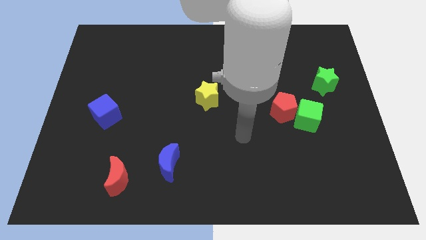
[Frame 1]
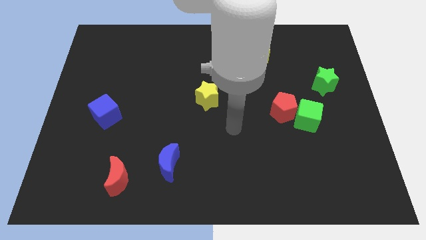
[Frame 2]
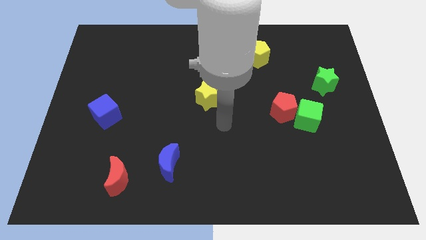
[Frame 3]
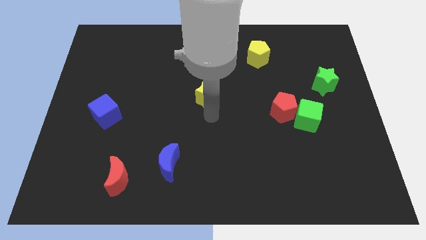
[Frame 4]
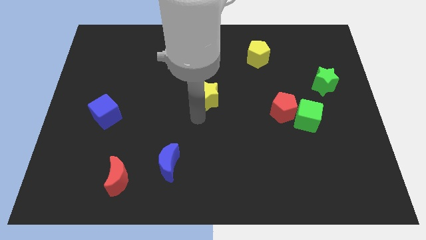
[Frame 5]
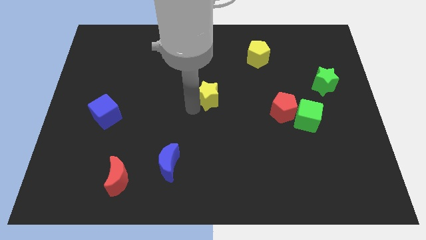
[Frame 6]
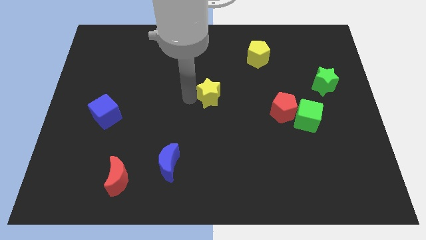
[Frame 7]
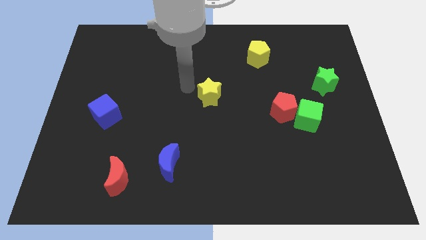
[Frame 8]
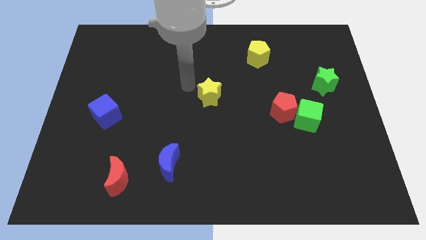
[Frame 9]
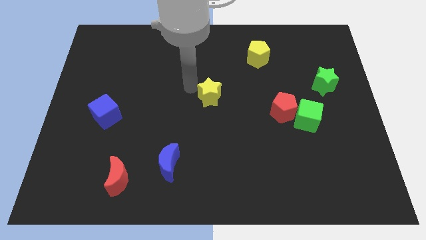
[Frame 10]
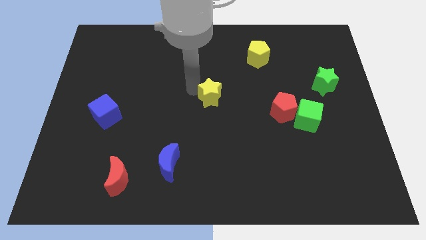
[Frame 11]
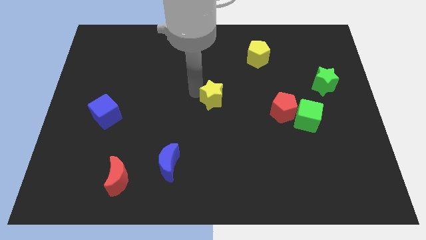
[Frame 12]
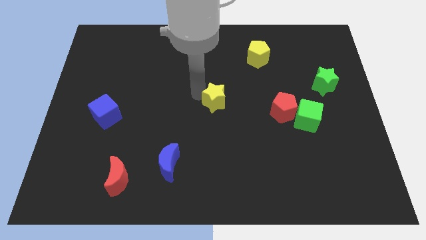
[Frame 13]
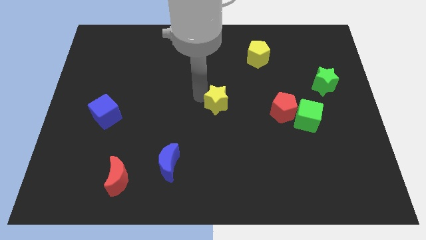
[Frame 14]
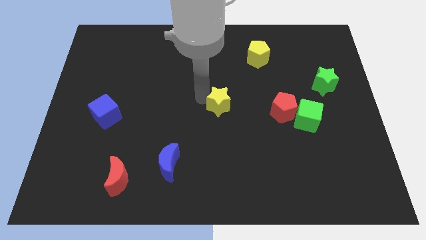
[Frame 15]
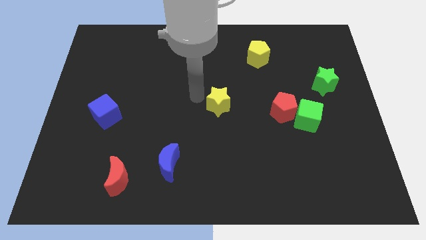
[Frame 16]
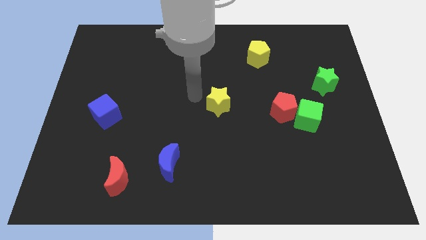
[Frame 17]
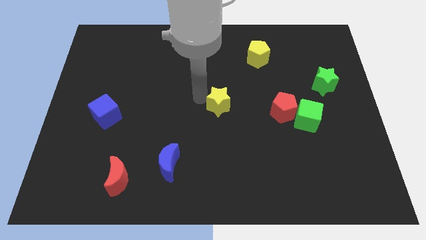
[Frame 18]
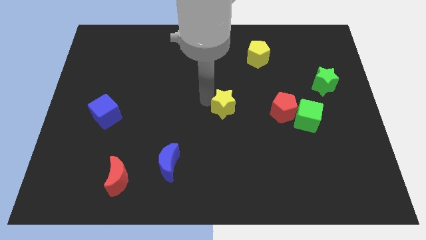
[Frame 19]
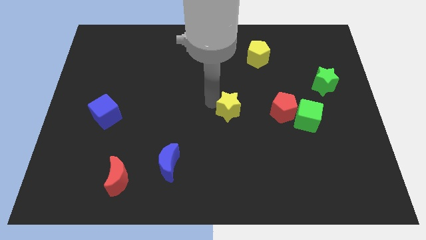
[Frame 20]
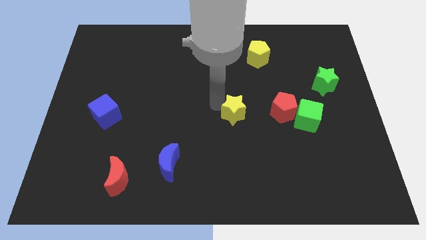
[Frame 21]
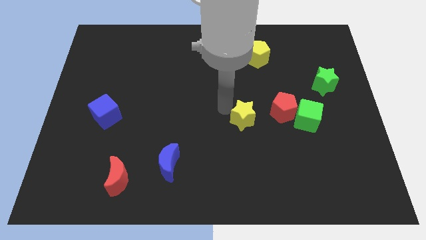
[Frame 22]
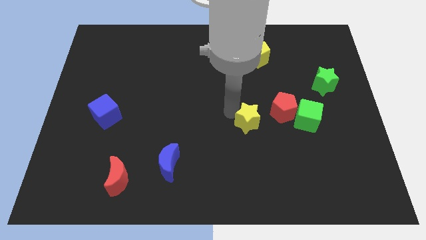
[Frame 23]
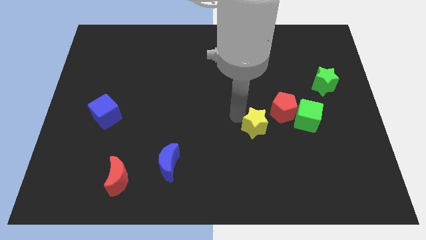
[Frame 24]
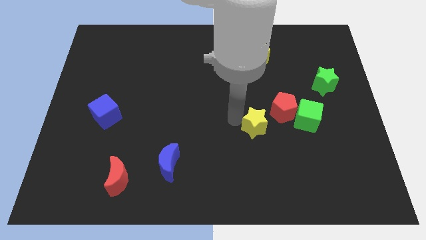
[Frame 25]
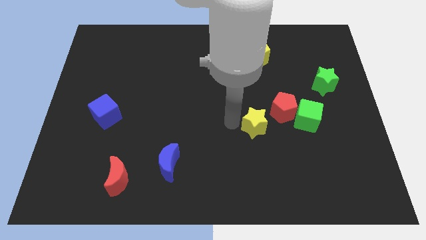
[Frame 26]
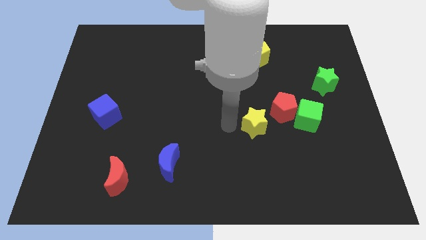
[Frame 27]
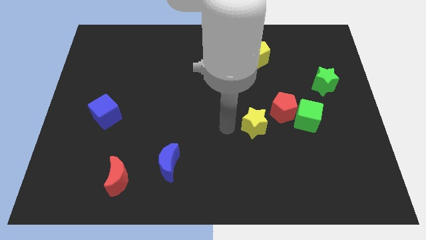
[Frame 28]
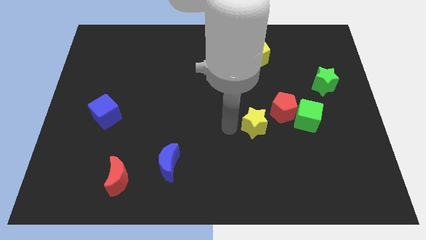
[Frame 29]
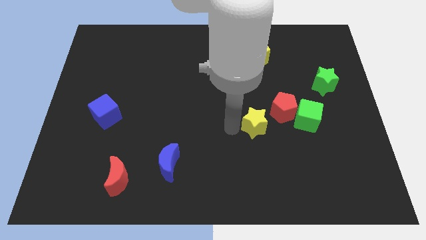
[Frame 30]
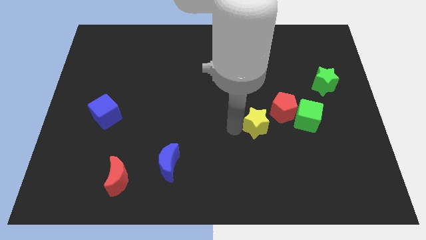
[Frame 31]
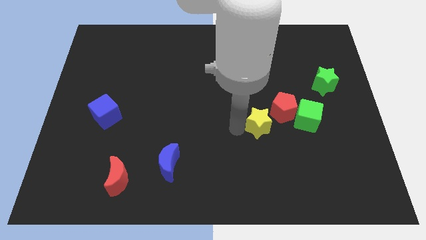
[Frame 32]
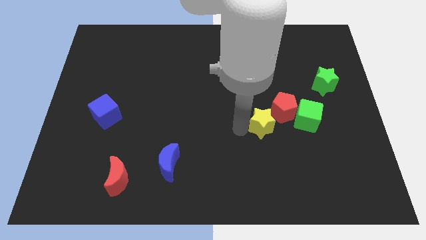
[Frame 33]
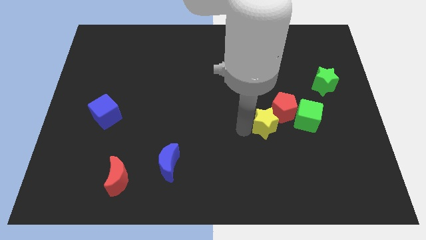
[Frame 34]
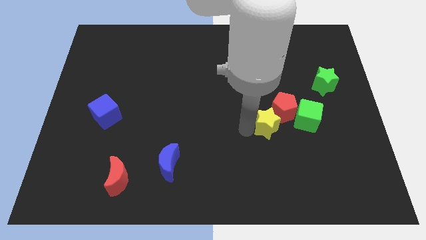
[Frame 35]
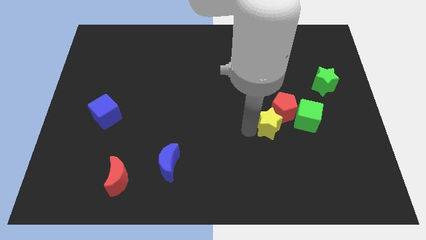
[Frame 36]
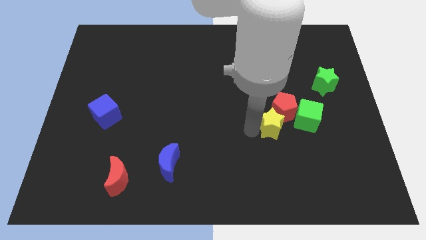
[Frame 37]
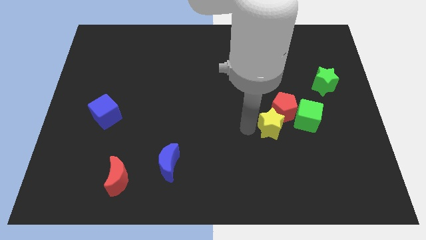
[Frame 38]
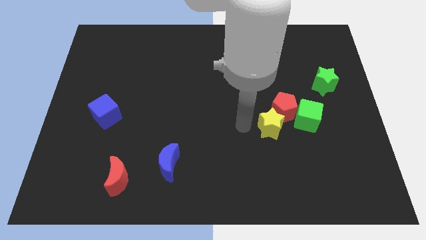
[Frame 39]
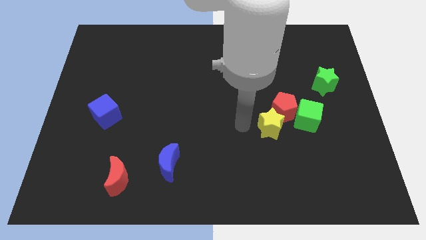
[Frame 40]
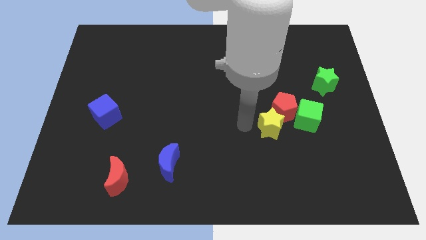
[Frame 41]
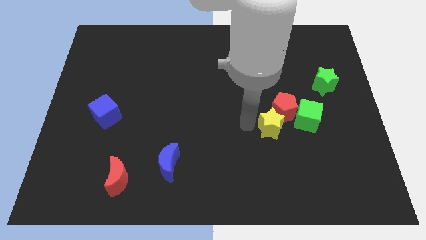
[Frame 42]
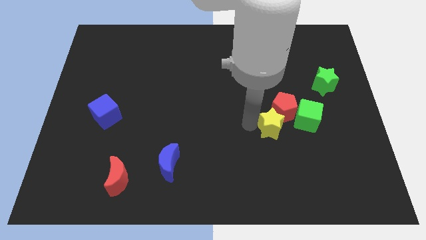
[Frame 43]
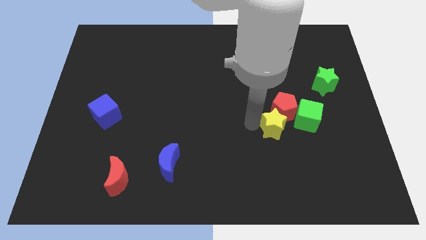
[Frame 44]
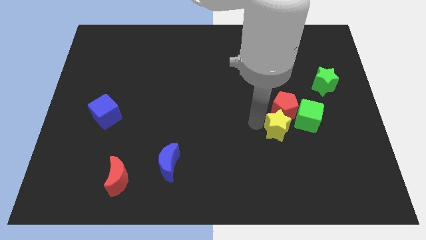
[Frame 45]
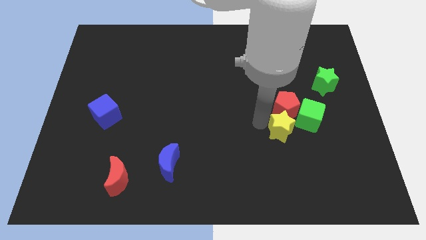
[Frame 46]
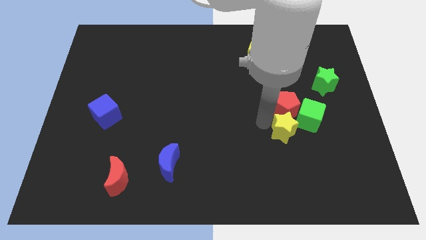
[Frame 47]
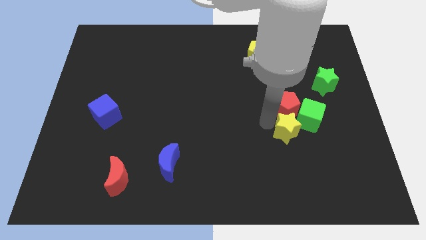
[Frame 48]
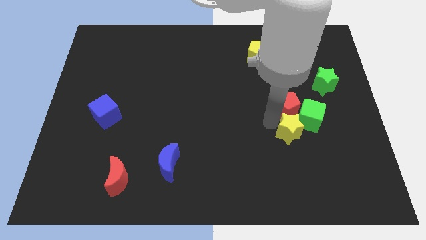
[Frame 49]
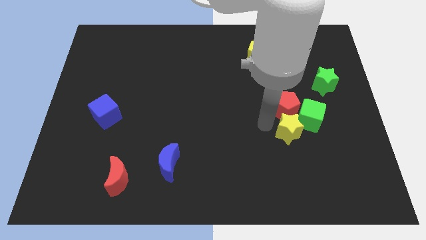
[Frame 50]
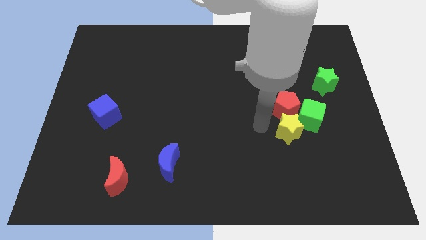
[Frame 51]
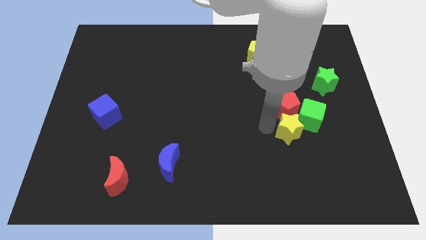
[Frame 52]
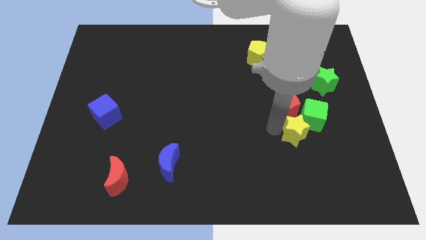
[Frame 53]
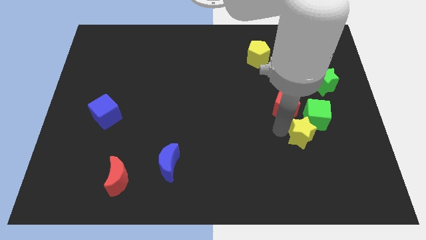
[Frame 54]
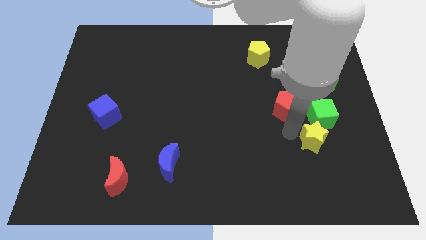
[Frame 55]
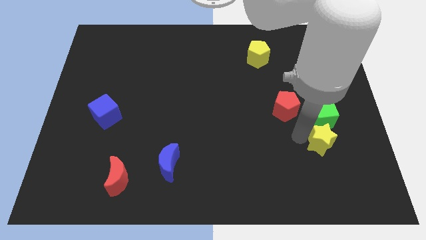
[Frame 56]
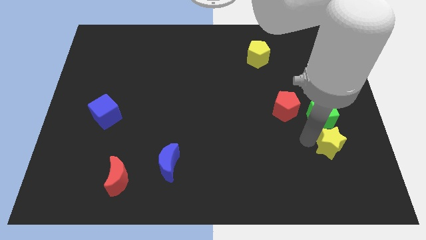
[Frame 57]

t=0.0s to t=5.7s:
slide the yellow star diagonally down and to the right of the green cube

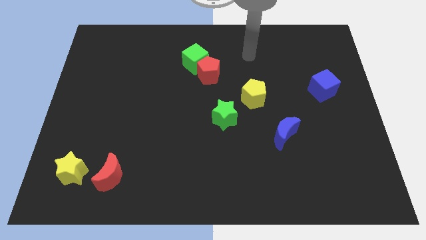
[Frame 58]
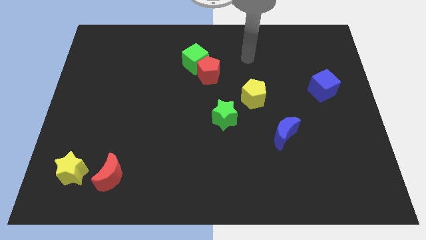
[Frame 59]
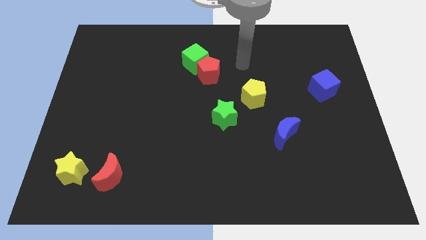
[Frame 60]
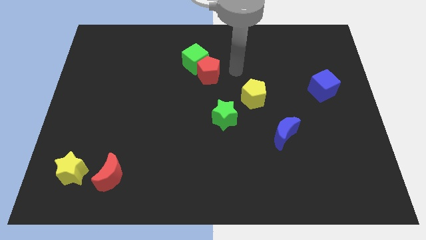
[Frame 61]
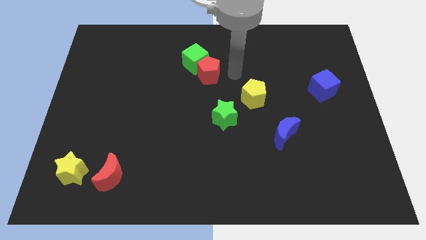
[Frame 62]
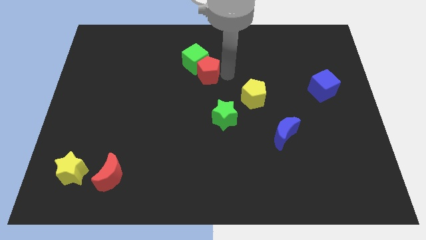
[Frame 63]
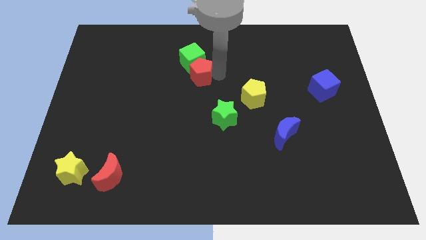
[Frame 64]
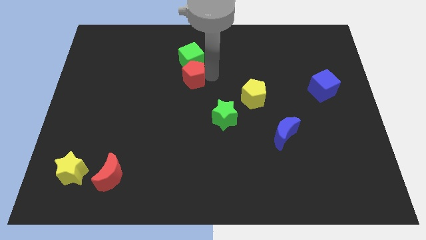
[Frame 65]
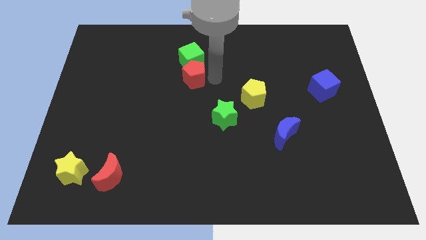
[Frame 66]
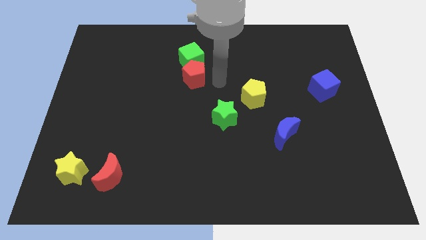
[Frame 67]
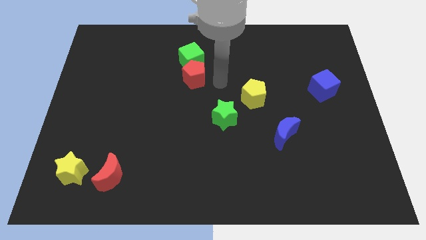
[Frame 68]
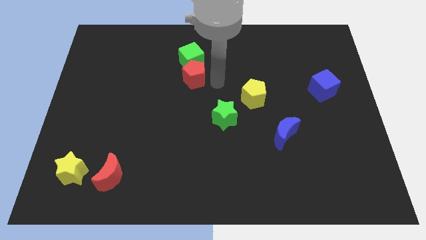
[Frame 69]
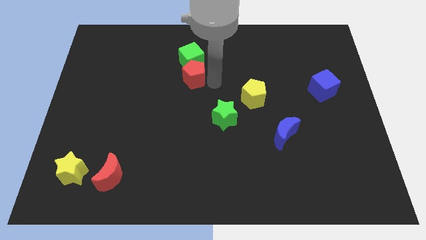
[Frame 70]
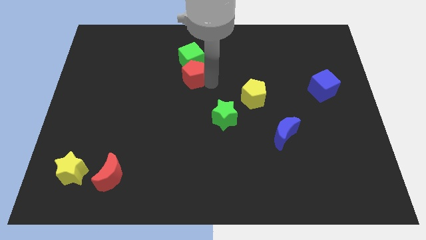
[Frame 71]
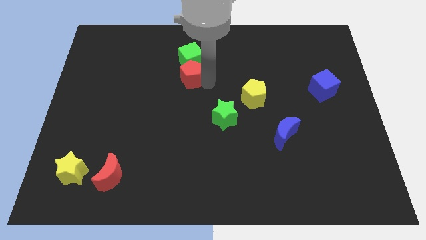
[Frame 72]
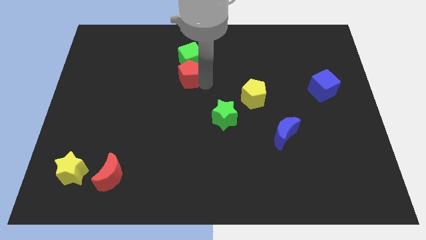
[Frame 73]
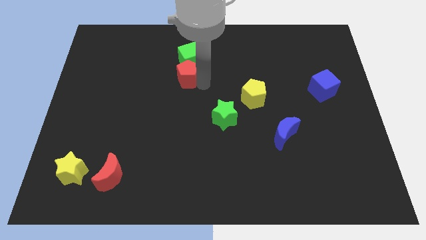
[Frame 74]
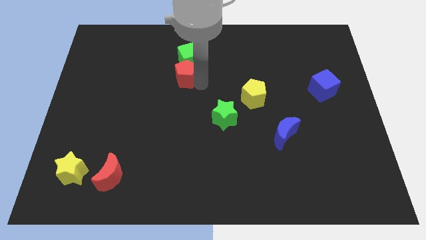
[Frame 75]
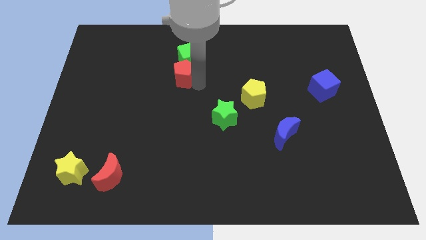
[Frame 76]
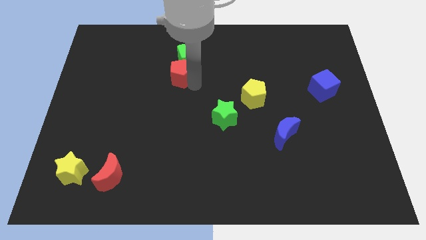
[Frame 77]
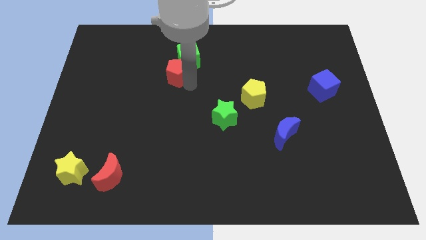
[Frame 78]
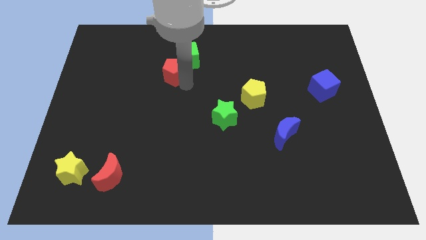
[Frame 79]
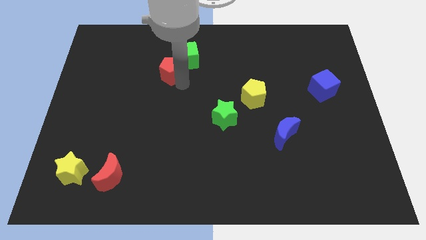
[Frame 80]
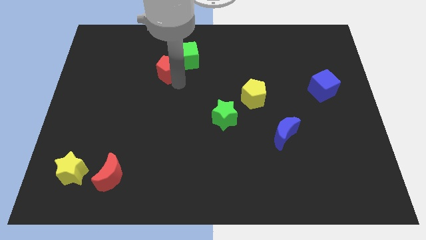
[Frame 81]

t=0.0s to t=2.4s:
put the red pentagon to the left of the green cube
